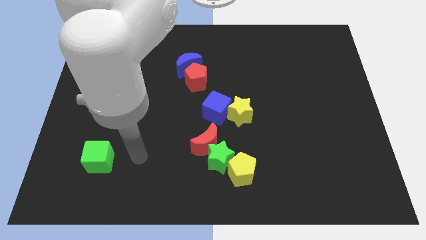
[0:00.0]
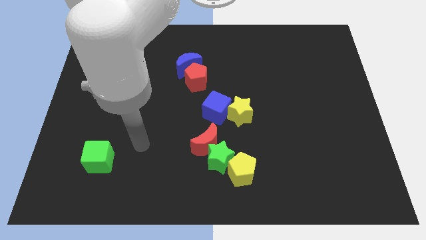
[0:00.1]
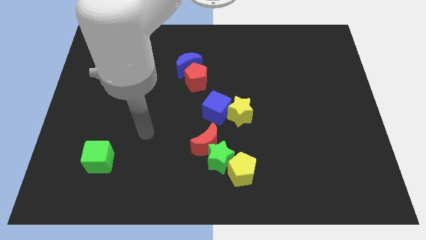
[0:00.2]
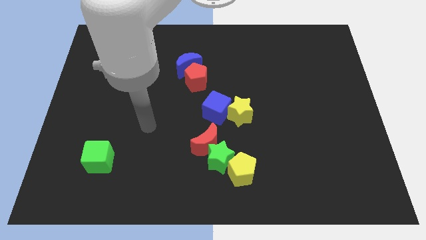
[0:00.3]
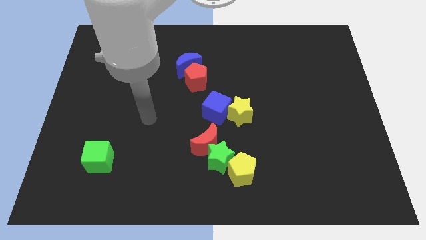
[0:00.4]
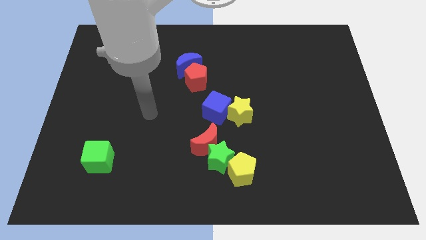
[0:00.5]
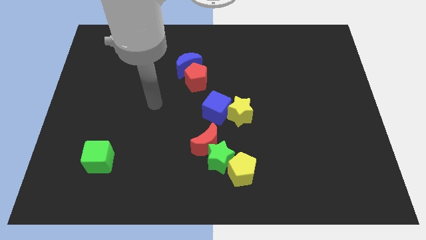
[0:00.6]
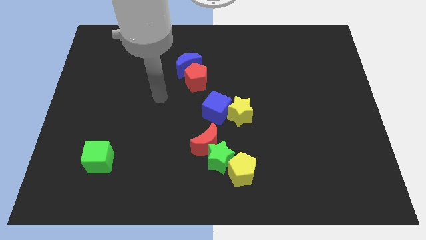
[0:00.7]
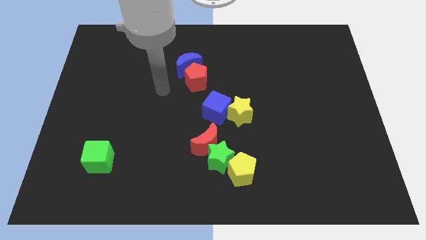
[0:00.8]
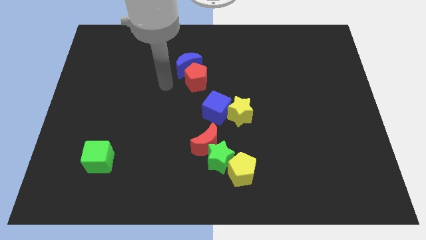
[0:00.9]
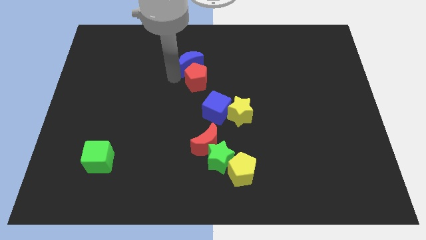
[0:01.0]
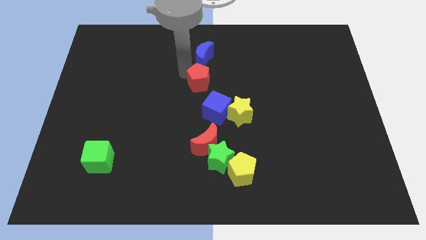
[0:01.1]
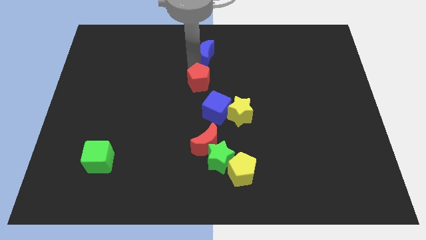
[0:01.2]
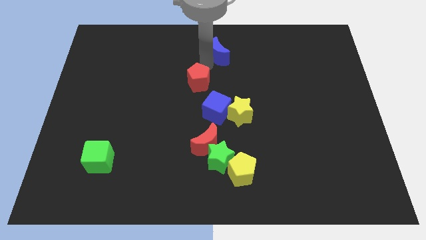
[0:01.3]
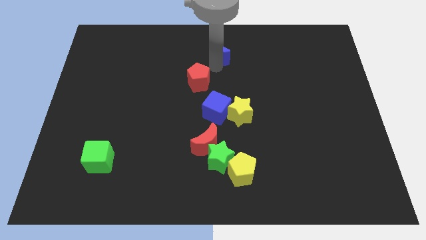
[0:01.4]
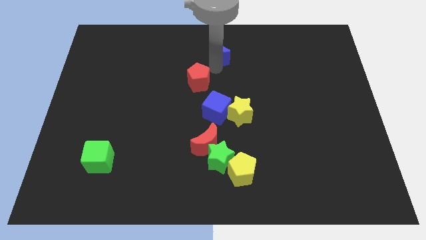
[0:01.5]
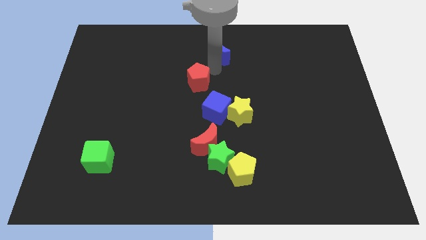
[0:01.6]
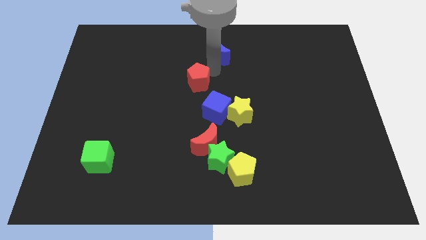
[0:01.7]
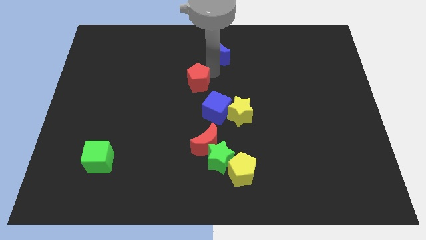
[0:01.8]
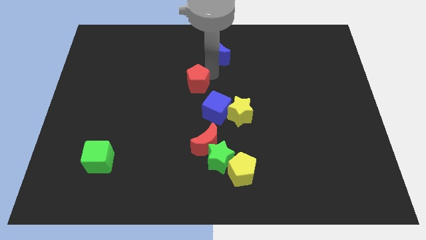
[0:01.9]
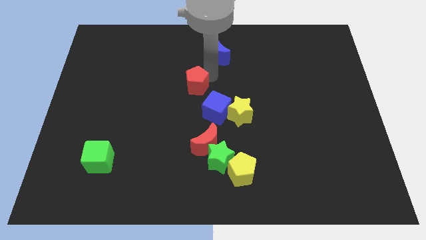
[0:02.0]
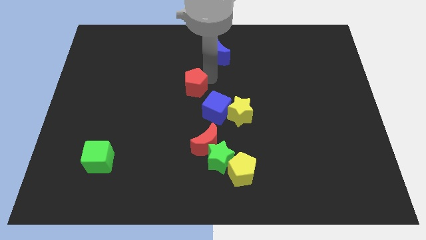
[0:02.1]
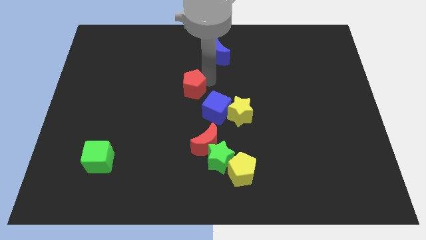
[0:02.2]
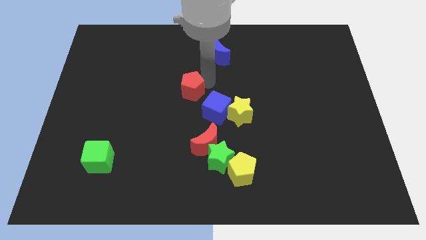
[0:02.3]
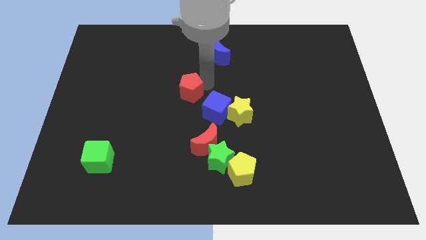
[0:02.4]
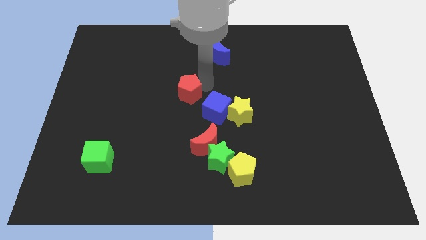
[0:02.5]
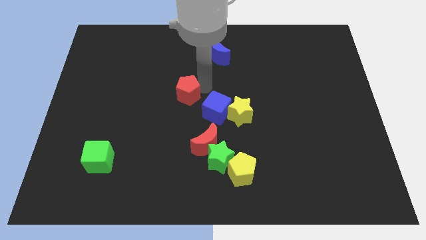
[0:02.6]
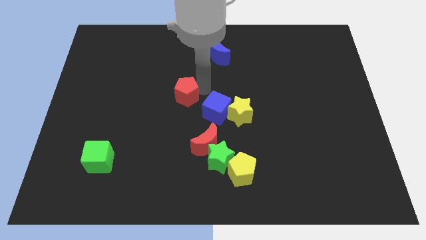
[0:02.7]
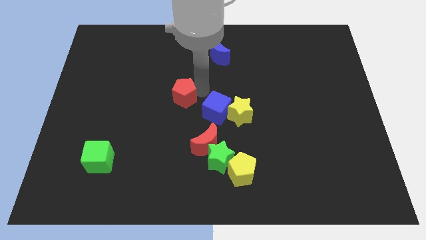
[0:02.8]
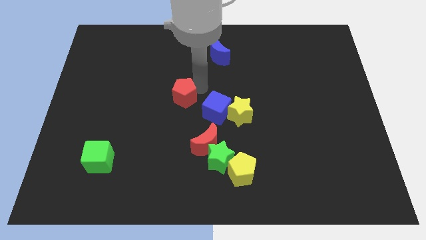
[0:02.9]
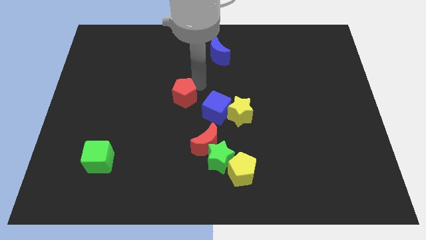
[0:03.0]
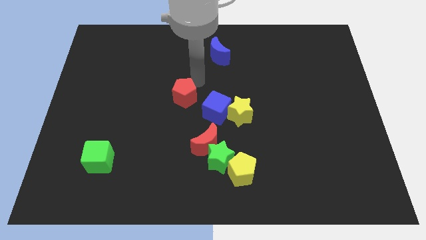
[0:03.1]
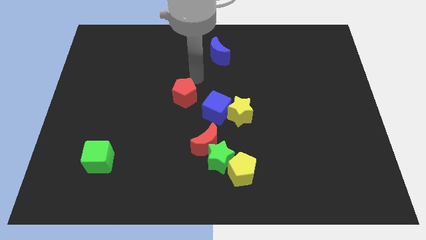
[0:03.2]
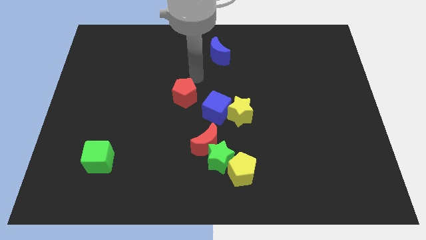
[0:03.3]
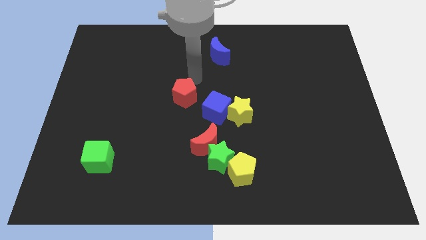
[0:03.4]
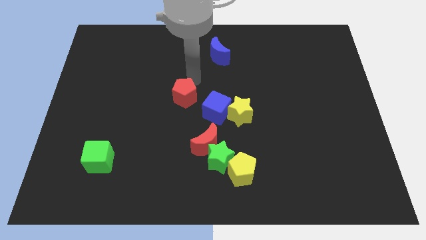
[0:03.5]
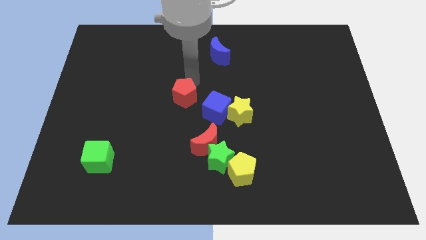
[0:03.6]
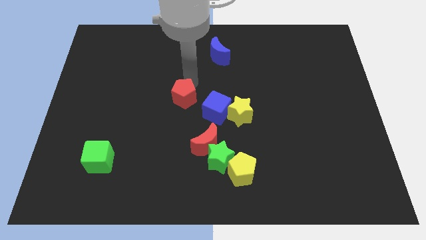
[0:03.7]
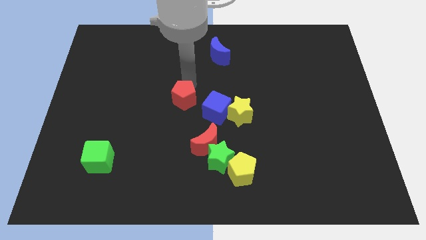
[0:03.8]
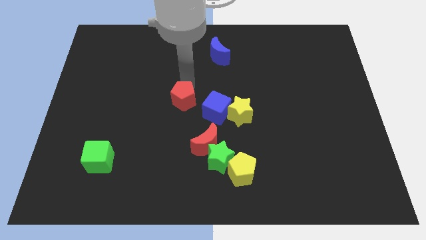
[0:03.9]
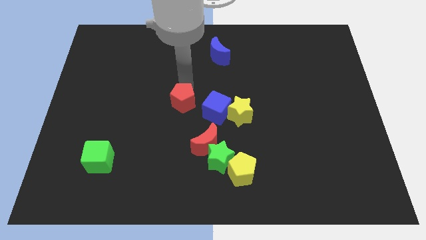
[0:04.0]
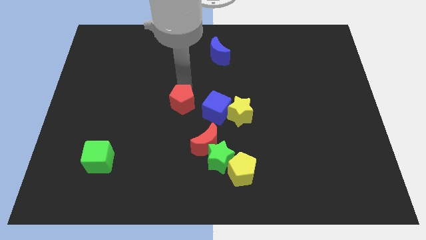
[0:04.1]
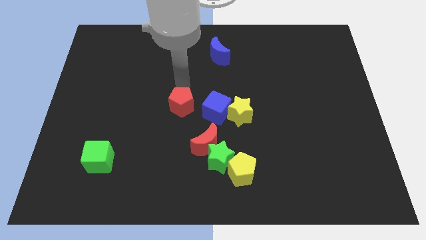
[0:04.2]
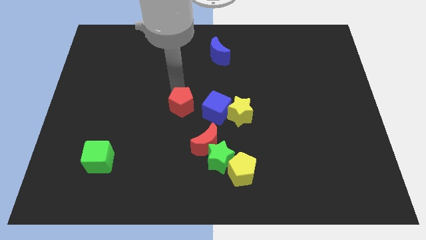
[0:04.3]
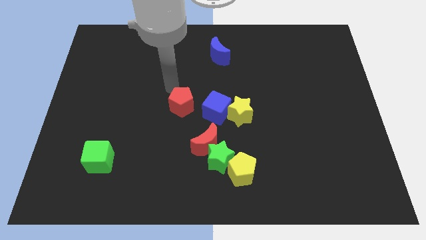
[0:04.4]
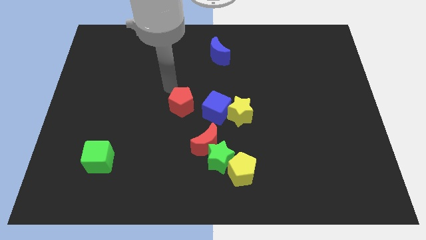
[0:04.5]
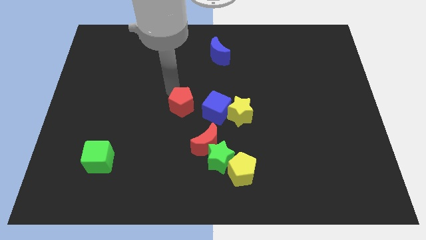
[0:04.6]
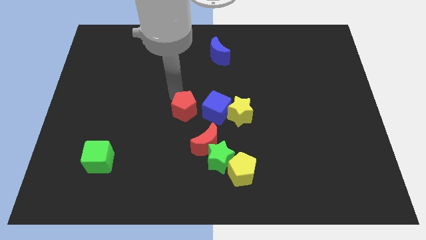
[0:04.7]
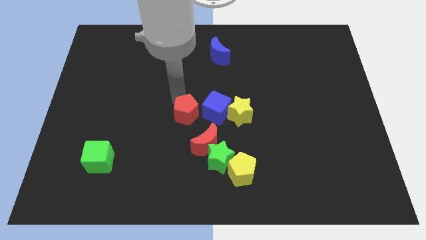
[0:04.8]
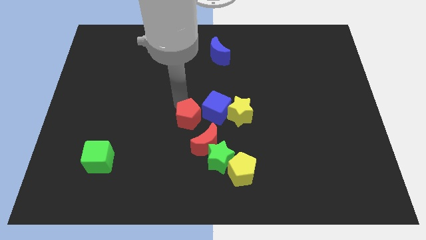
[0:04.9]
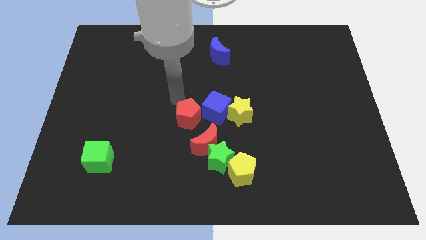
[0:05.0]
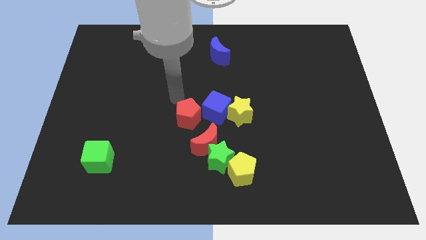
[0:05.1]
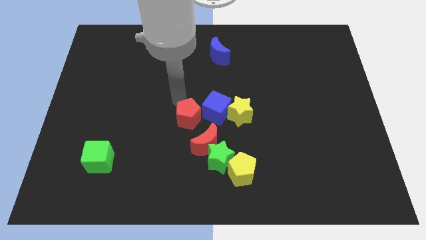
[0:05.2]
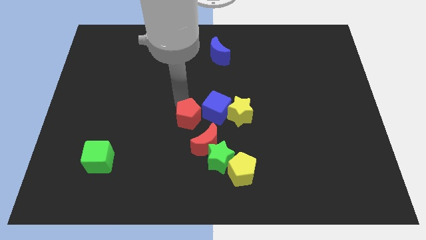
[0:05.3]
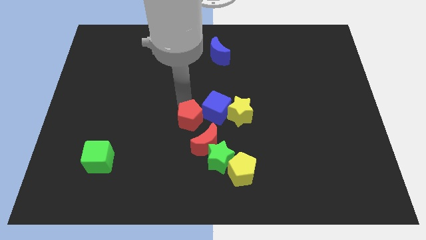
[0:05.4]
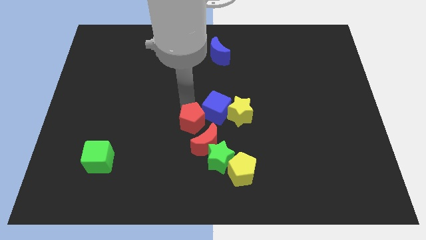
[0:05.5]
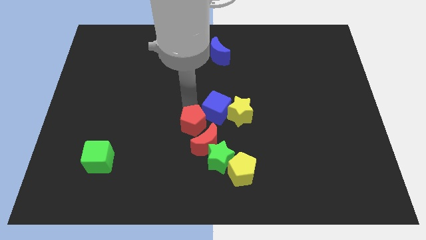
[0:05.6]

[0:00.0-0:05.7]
move the red pentagon close to the red moon

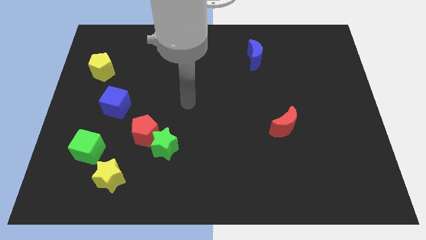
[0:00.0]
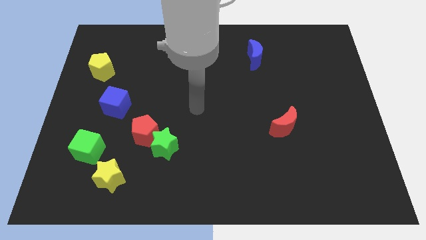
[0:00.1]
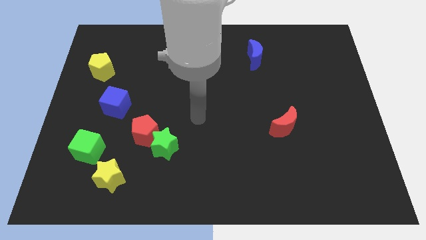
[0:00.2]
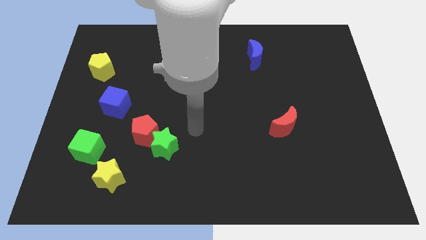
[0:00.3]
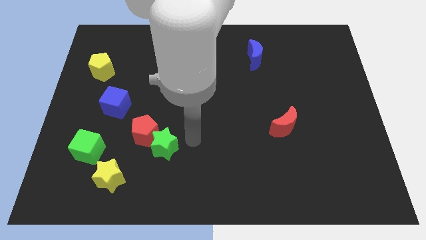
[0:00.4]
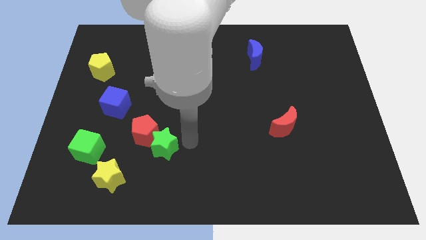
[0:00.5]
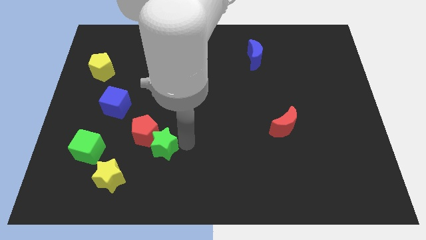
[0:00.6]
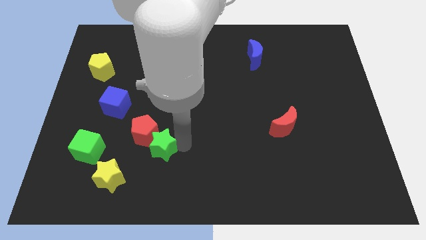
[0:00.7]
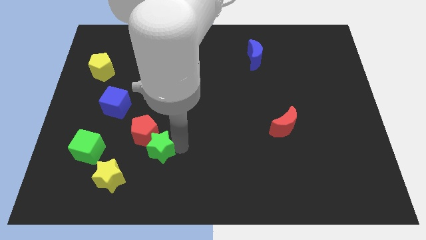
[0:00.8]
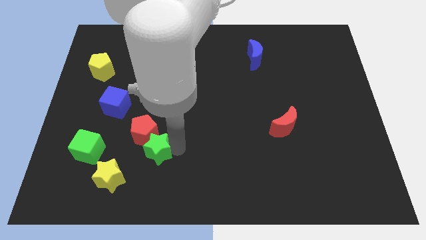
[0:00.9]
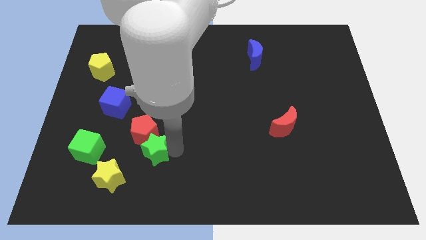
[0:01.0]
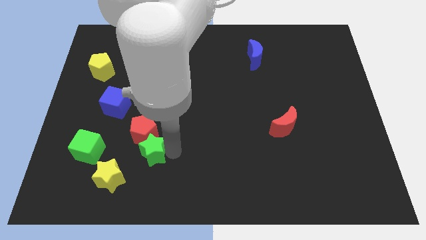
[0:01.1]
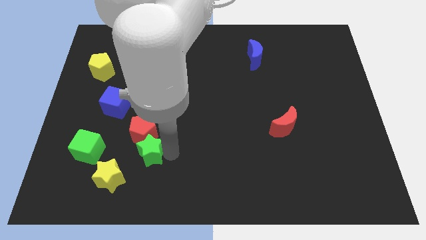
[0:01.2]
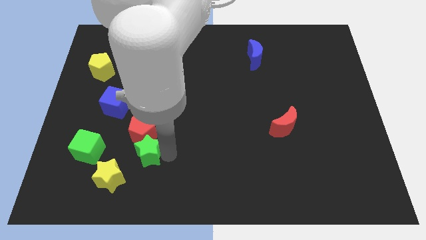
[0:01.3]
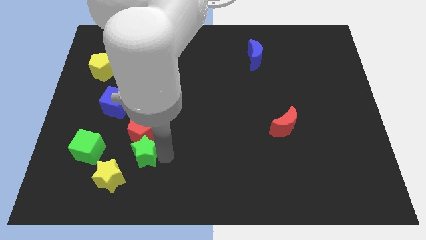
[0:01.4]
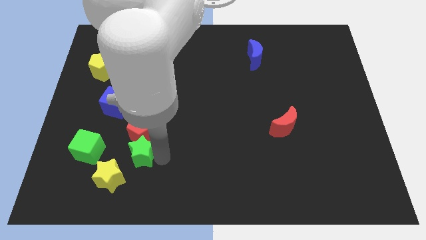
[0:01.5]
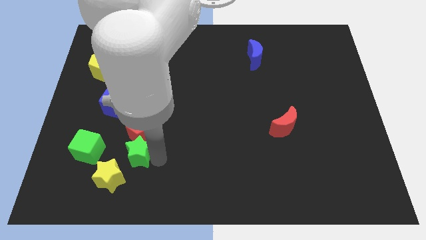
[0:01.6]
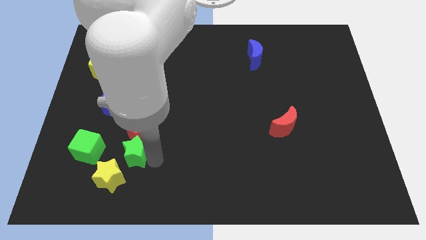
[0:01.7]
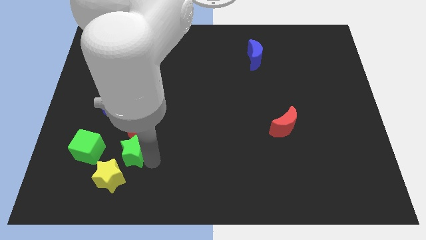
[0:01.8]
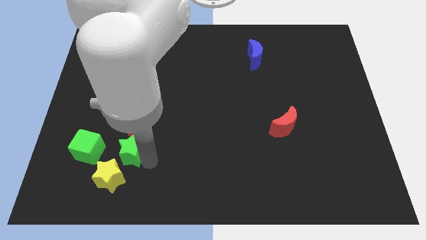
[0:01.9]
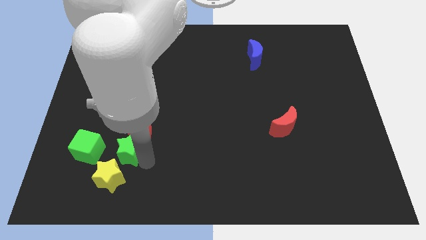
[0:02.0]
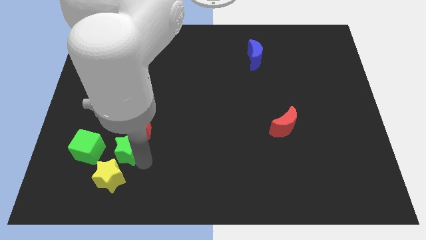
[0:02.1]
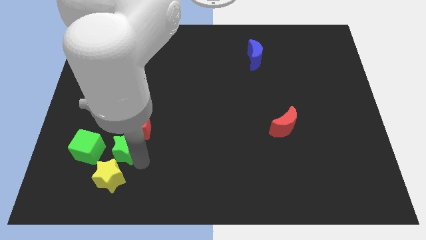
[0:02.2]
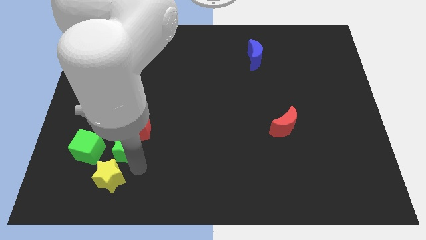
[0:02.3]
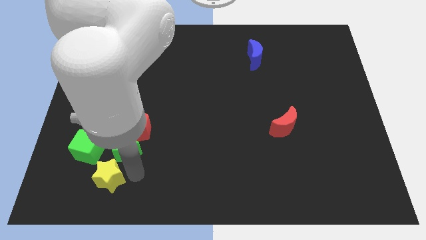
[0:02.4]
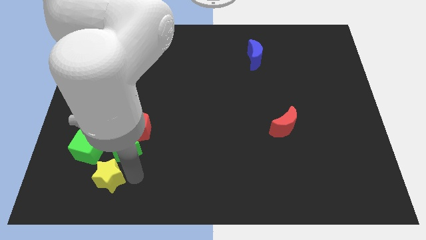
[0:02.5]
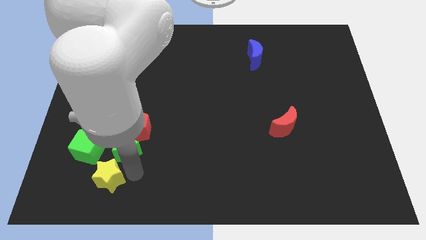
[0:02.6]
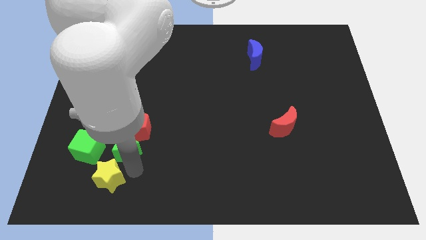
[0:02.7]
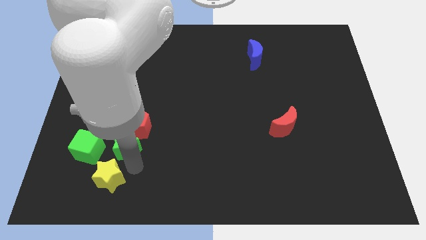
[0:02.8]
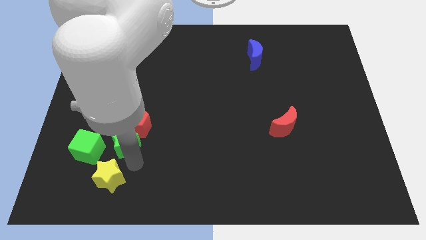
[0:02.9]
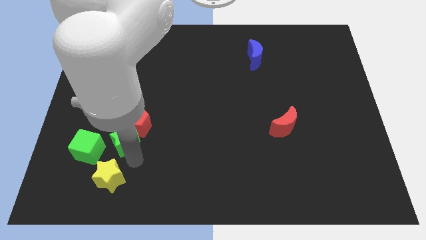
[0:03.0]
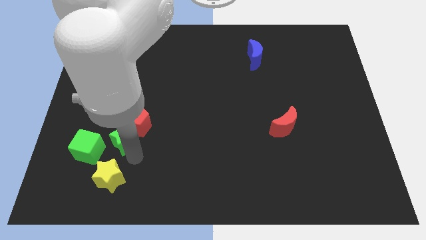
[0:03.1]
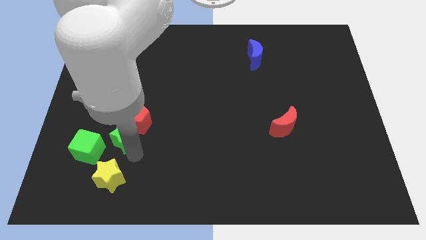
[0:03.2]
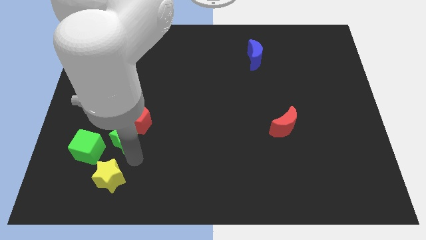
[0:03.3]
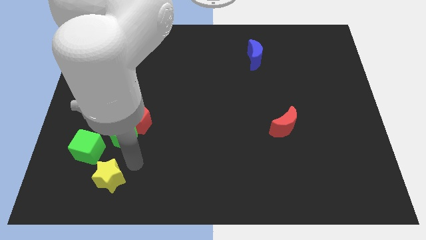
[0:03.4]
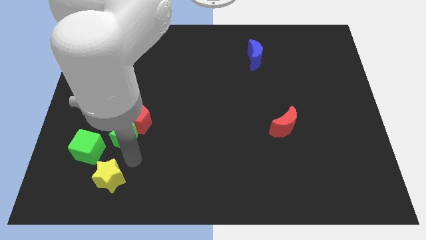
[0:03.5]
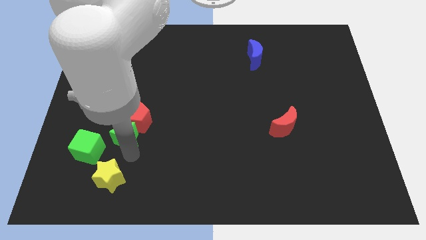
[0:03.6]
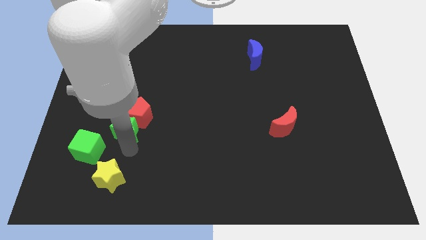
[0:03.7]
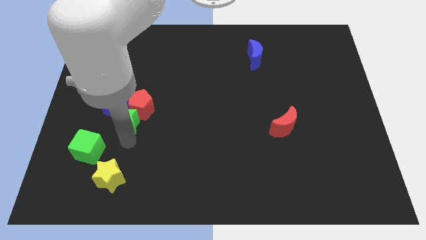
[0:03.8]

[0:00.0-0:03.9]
put the green star close to the blue cube
